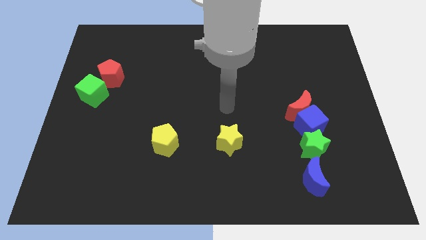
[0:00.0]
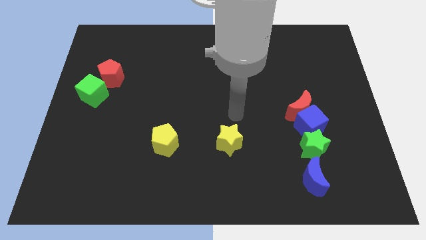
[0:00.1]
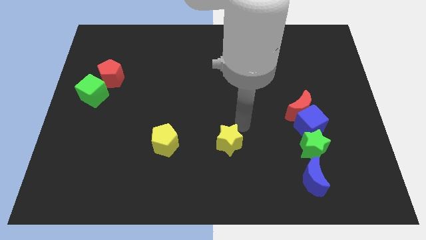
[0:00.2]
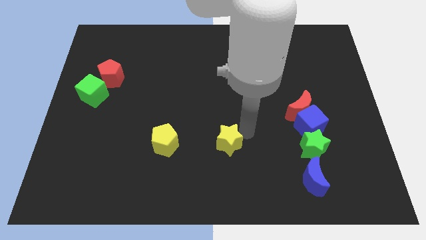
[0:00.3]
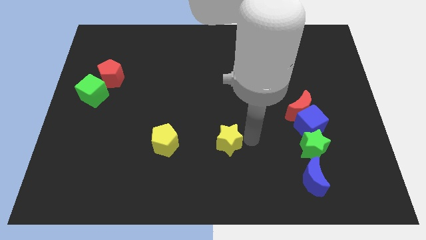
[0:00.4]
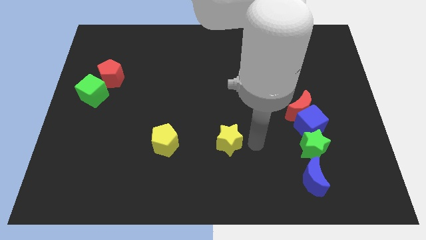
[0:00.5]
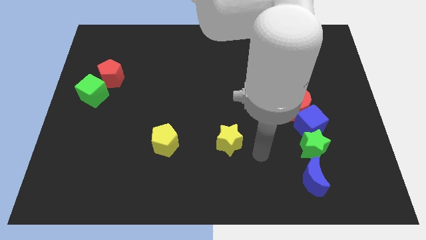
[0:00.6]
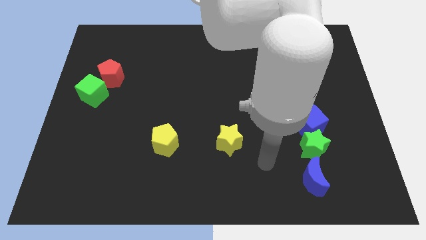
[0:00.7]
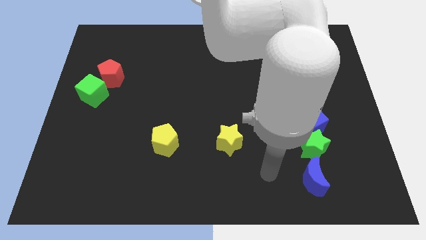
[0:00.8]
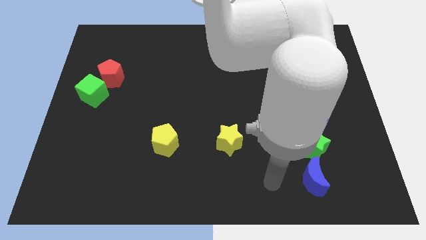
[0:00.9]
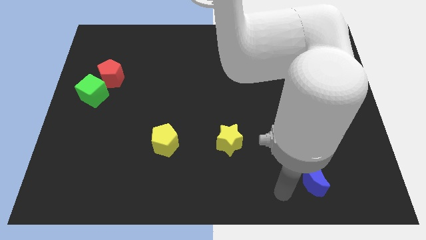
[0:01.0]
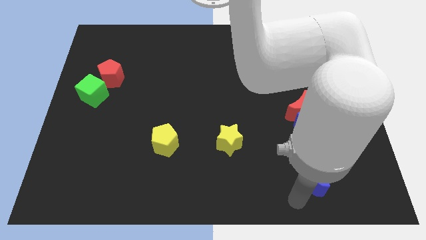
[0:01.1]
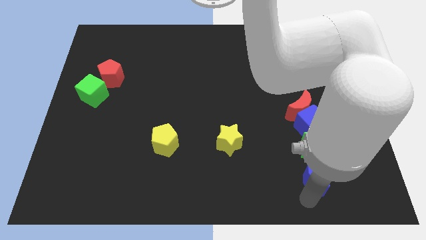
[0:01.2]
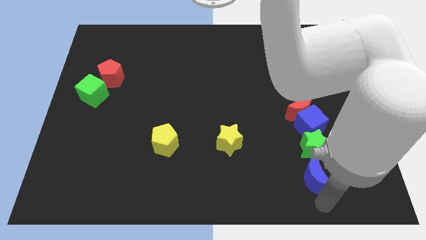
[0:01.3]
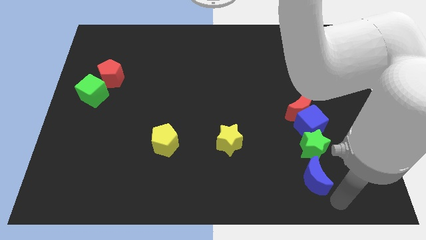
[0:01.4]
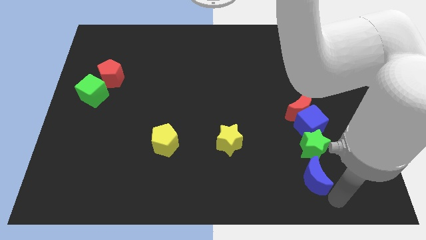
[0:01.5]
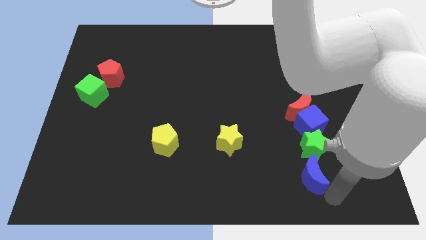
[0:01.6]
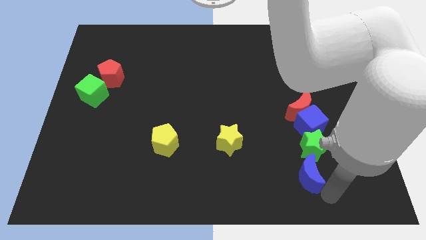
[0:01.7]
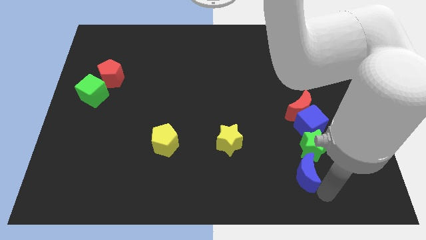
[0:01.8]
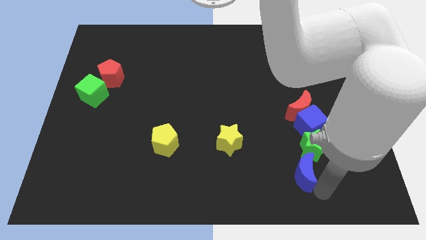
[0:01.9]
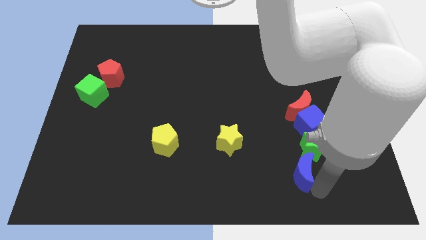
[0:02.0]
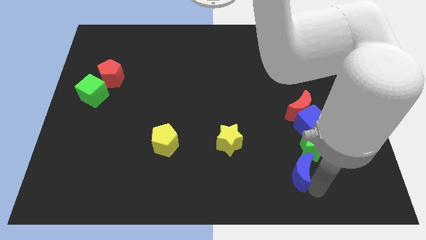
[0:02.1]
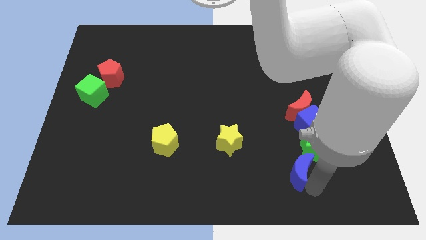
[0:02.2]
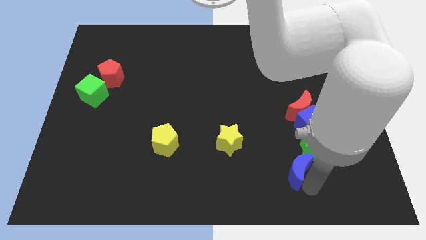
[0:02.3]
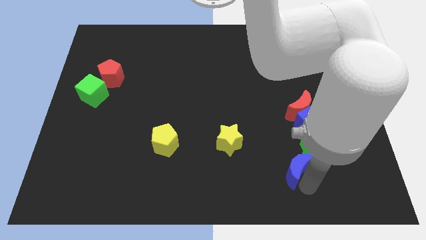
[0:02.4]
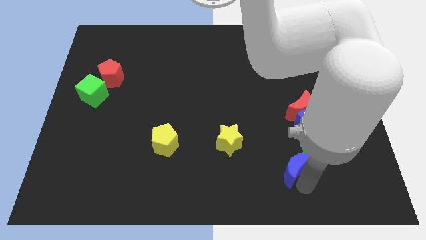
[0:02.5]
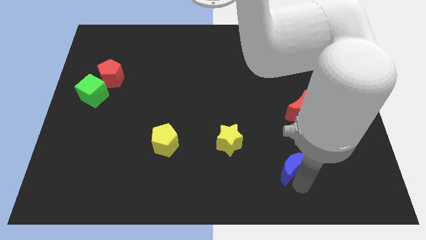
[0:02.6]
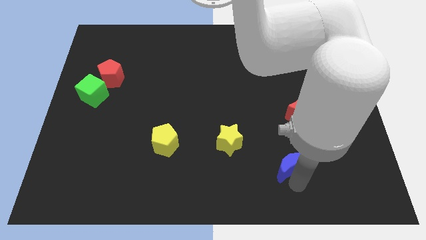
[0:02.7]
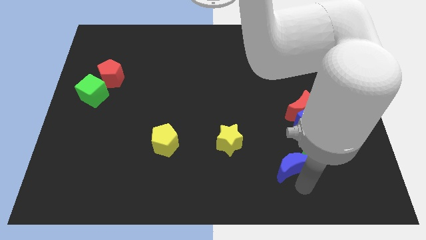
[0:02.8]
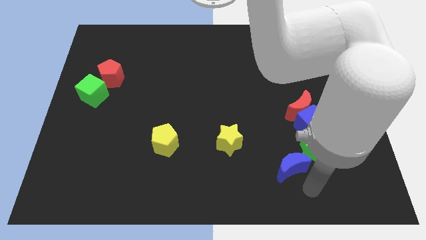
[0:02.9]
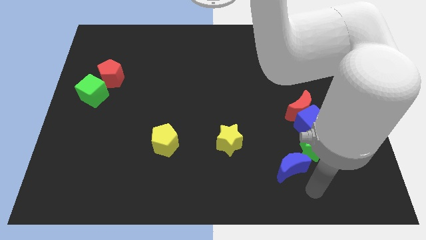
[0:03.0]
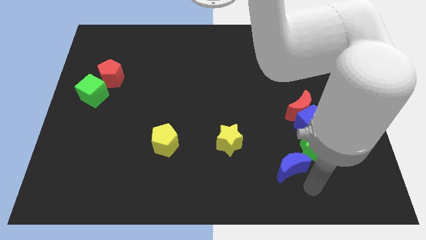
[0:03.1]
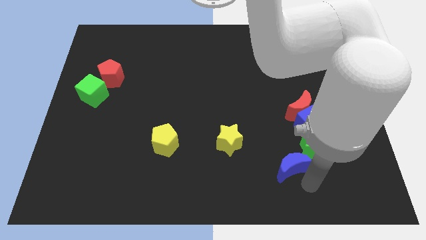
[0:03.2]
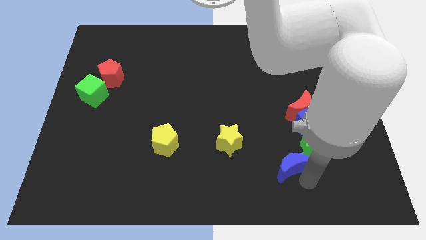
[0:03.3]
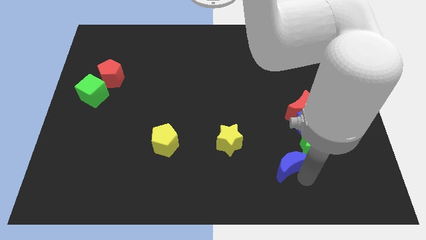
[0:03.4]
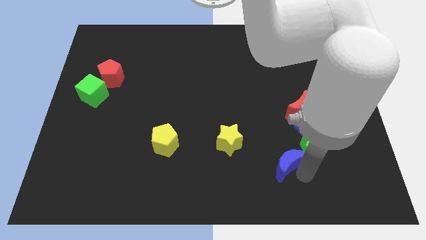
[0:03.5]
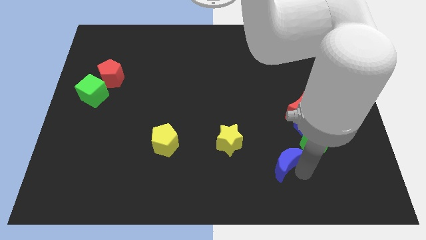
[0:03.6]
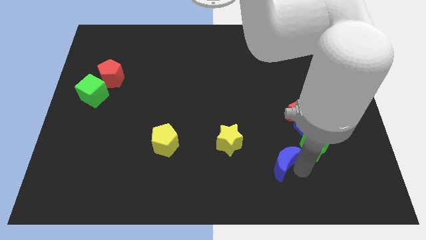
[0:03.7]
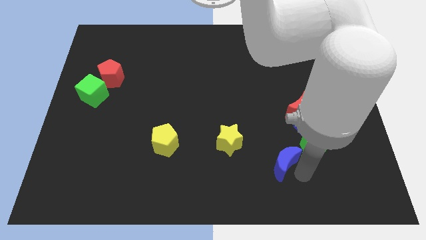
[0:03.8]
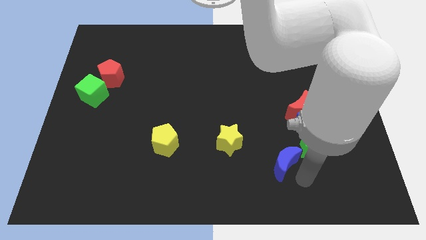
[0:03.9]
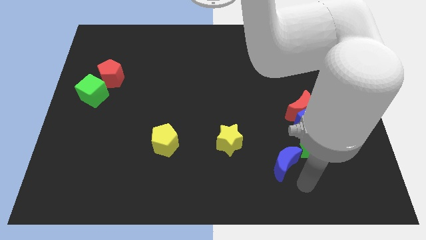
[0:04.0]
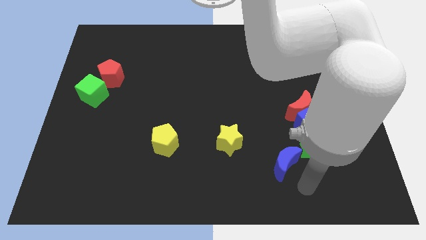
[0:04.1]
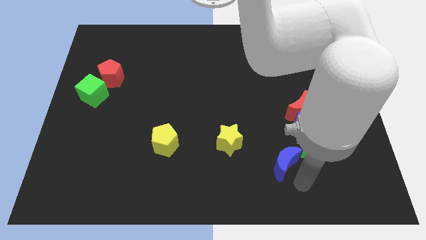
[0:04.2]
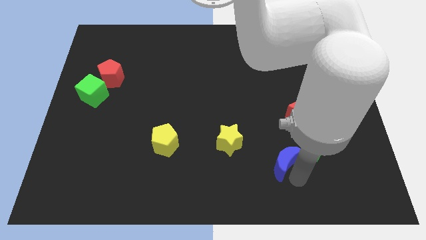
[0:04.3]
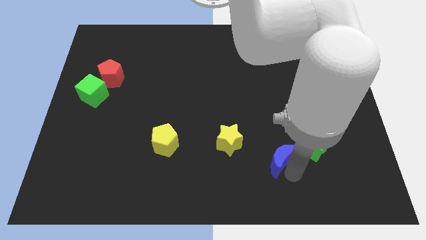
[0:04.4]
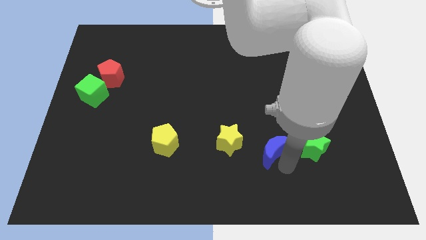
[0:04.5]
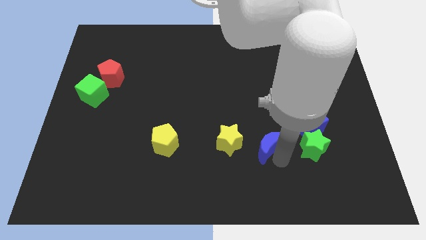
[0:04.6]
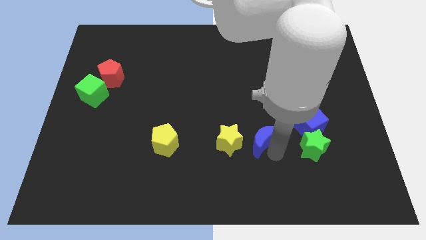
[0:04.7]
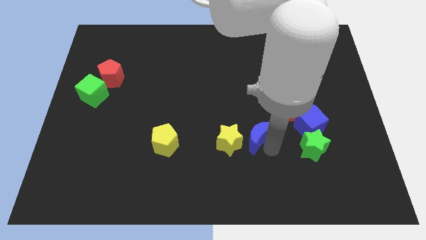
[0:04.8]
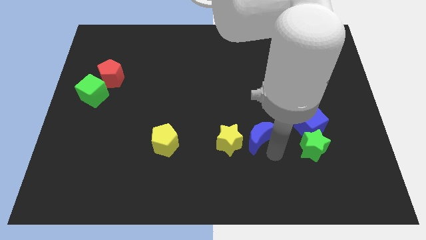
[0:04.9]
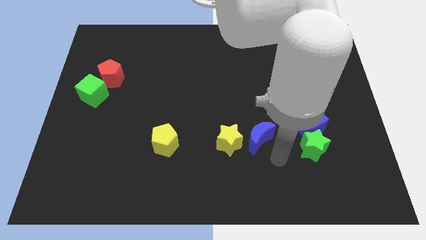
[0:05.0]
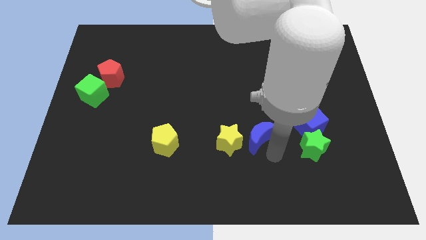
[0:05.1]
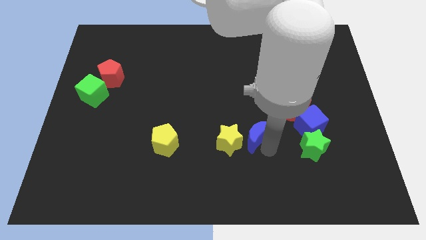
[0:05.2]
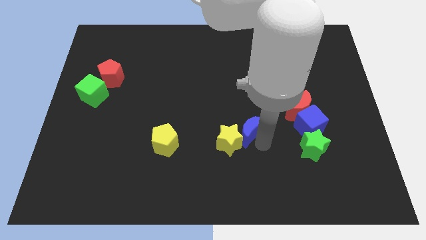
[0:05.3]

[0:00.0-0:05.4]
move the blue moon to the center
